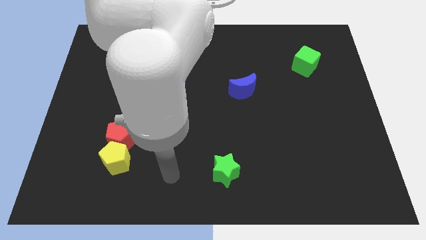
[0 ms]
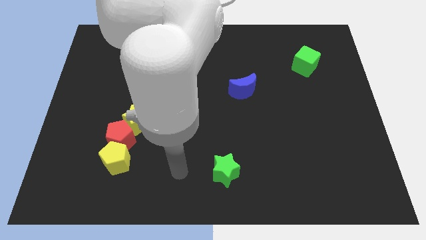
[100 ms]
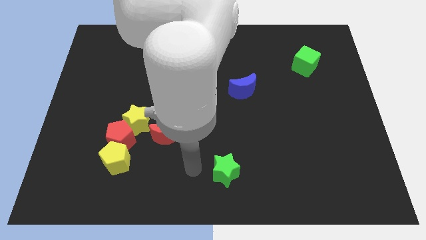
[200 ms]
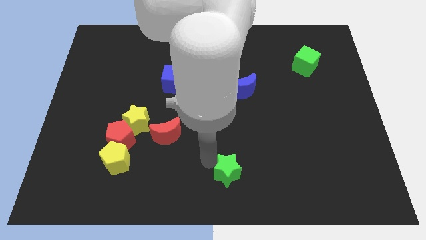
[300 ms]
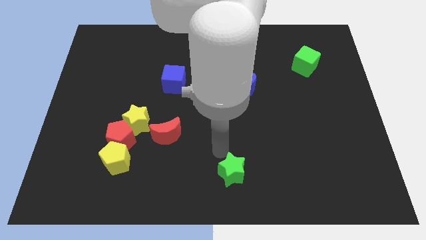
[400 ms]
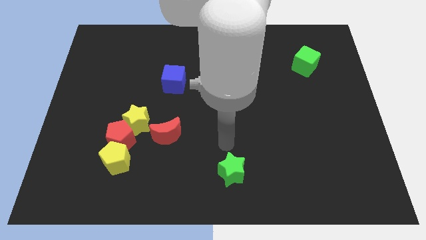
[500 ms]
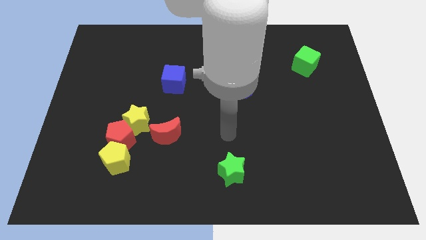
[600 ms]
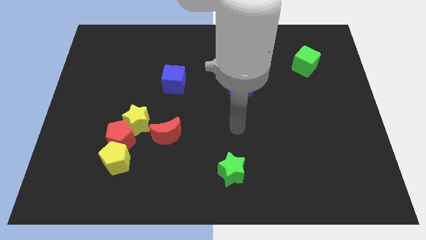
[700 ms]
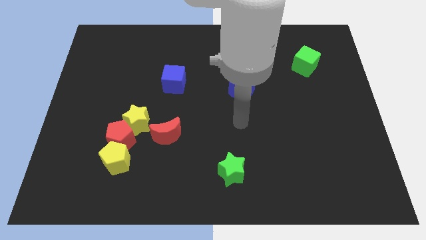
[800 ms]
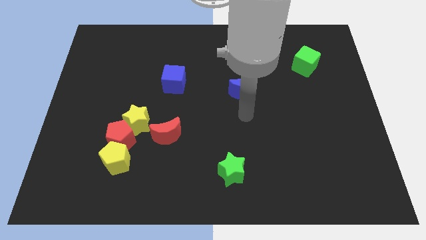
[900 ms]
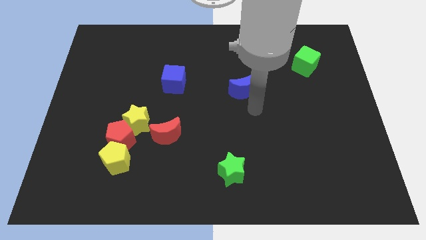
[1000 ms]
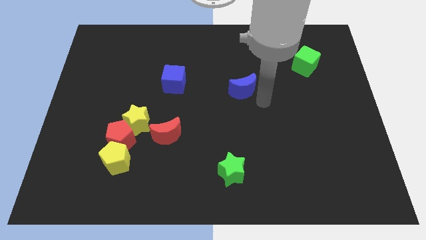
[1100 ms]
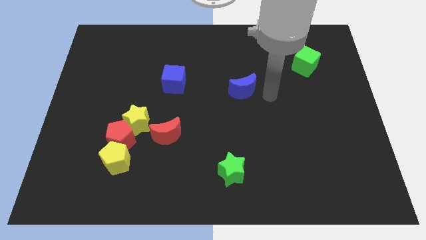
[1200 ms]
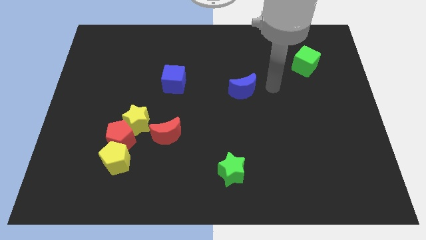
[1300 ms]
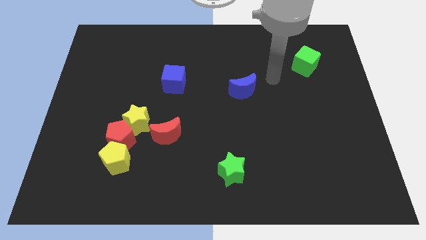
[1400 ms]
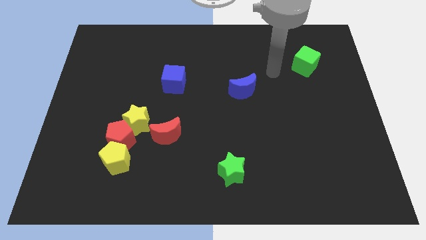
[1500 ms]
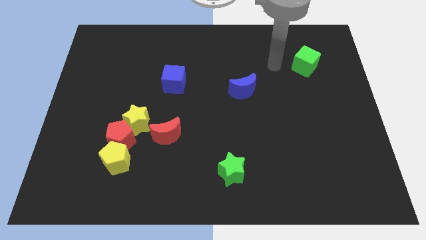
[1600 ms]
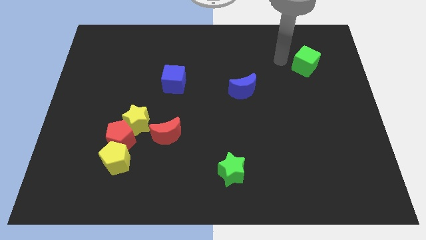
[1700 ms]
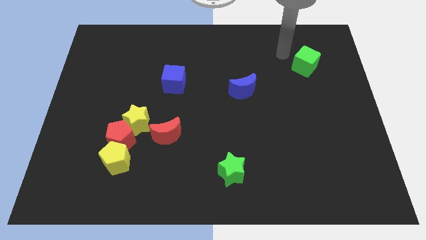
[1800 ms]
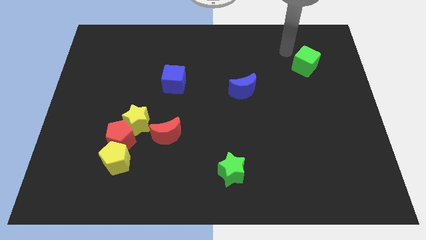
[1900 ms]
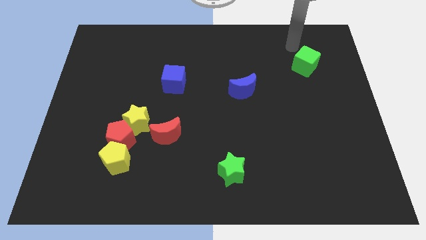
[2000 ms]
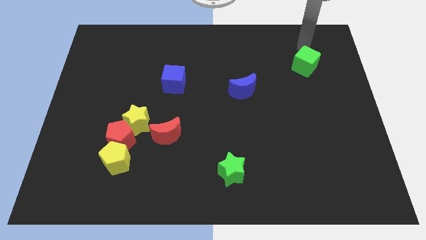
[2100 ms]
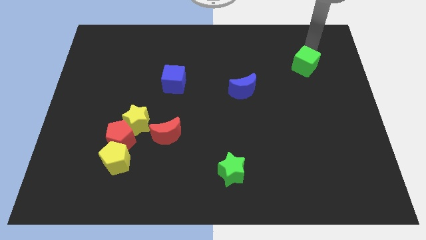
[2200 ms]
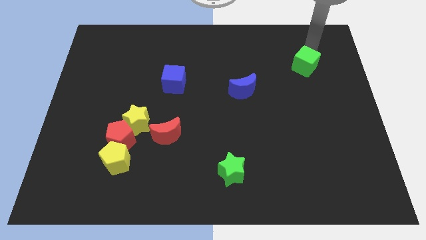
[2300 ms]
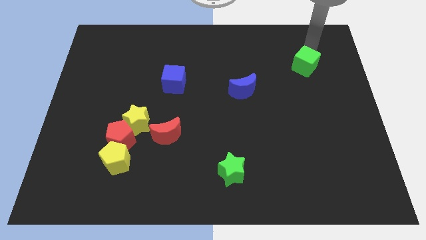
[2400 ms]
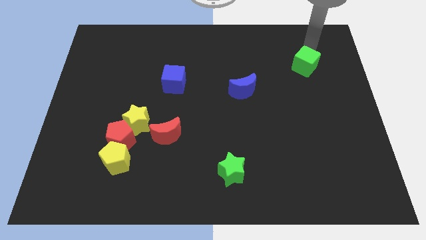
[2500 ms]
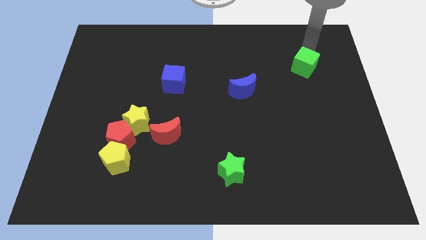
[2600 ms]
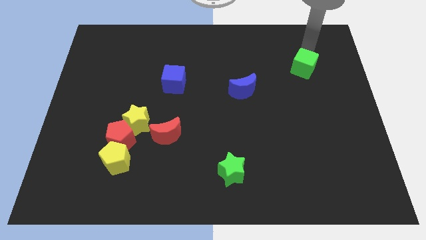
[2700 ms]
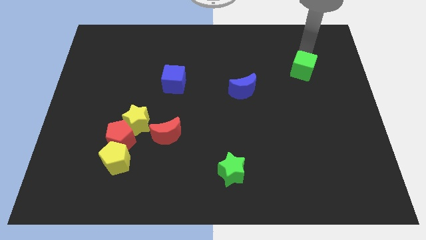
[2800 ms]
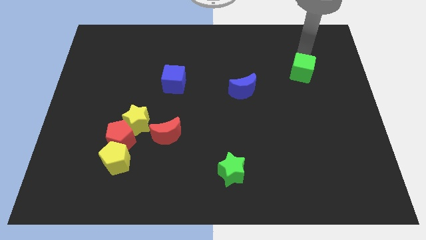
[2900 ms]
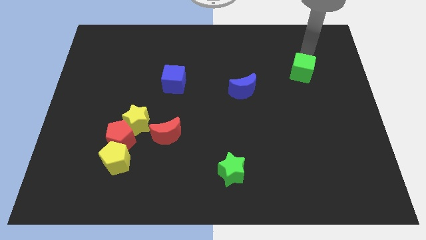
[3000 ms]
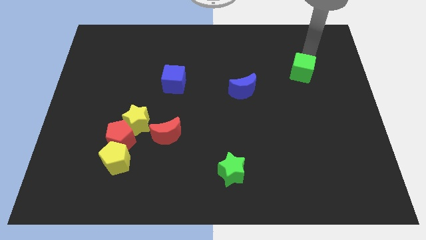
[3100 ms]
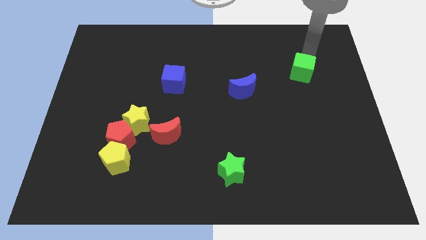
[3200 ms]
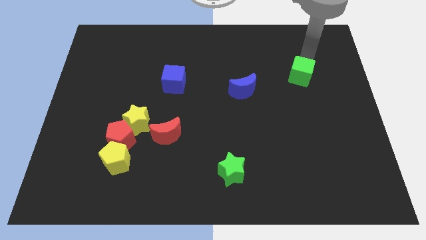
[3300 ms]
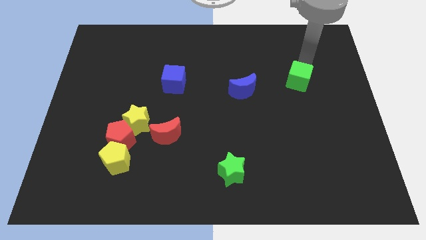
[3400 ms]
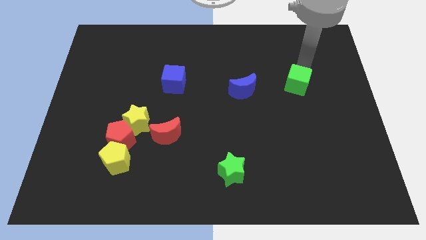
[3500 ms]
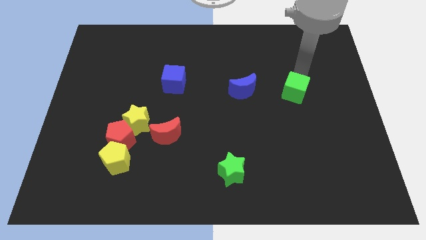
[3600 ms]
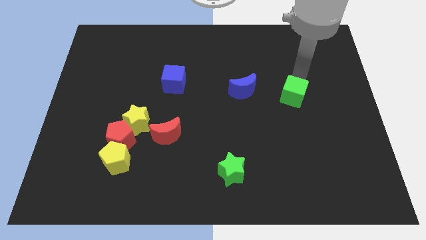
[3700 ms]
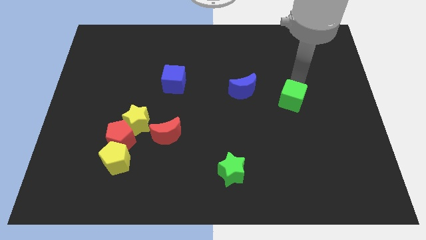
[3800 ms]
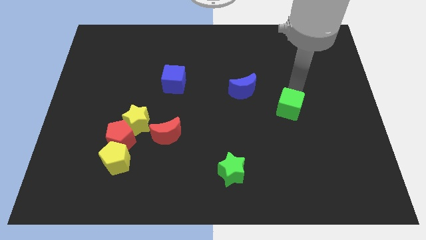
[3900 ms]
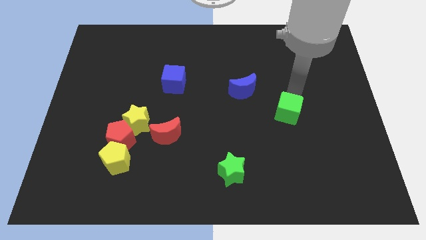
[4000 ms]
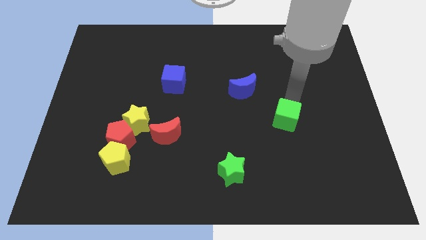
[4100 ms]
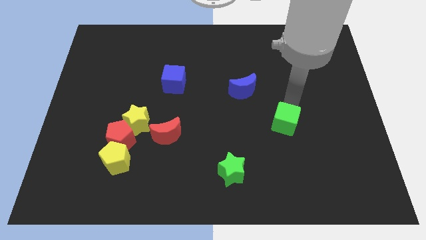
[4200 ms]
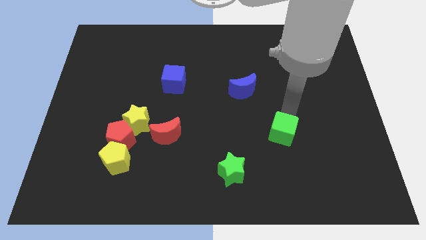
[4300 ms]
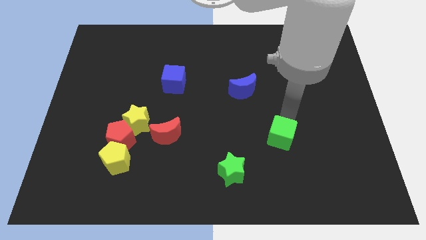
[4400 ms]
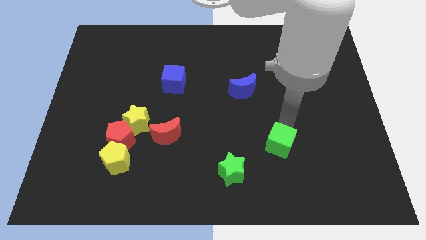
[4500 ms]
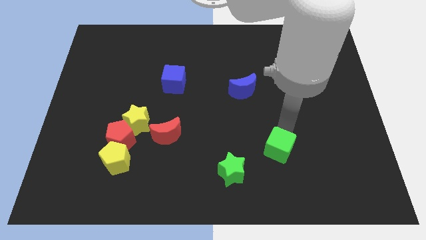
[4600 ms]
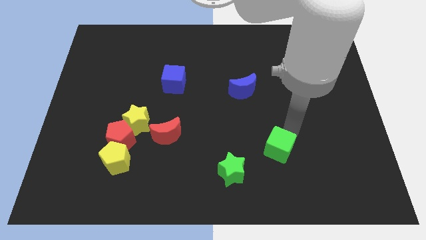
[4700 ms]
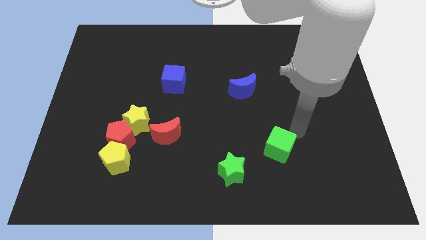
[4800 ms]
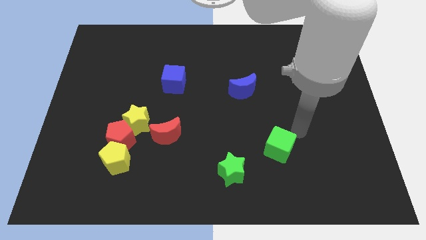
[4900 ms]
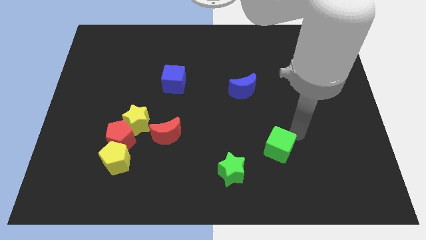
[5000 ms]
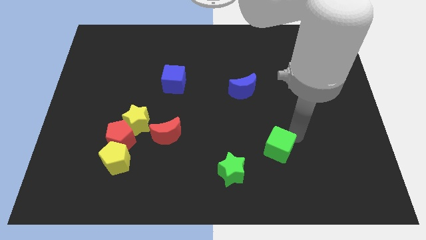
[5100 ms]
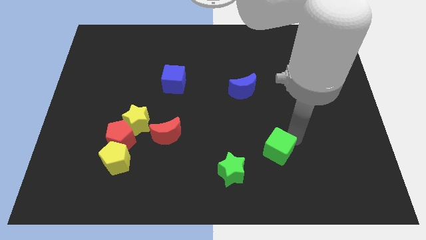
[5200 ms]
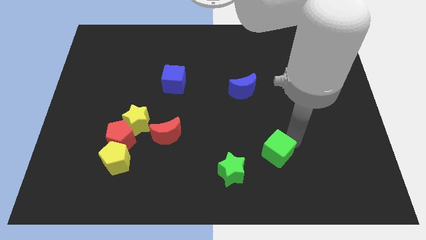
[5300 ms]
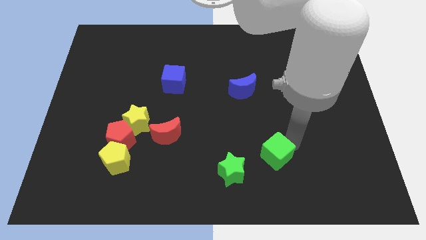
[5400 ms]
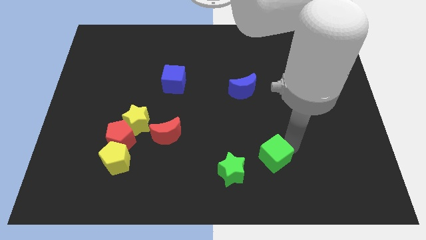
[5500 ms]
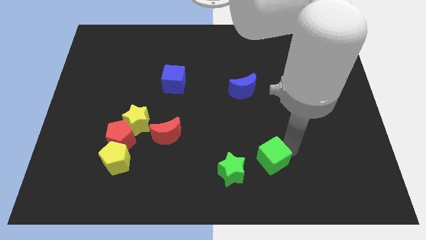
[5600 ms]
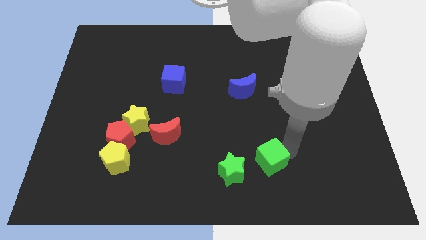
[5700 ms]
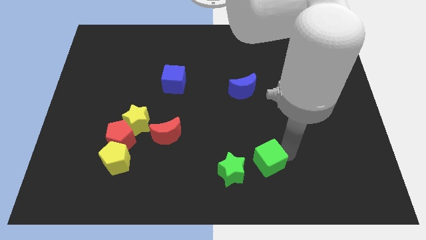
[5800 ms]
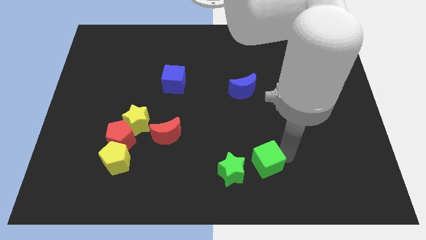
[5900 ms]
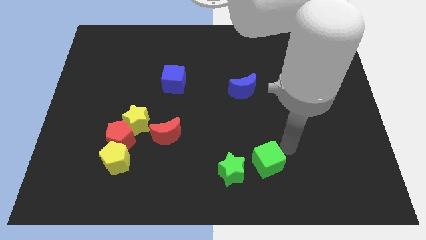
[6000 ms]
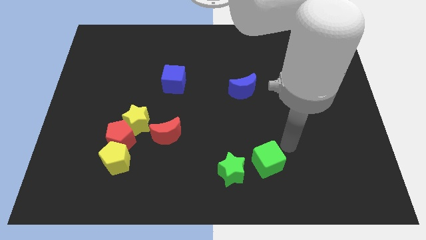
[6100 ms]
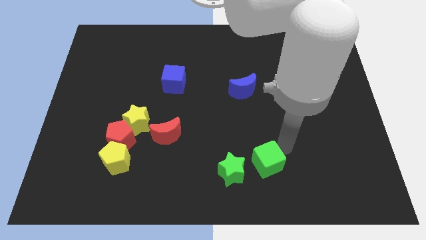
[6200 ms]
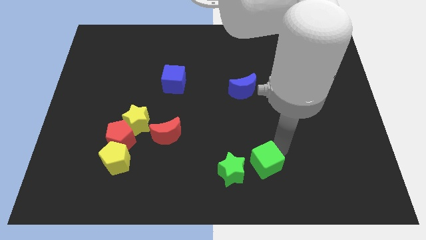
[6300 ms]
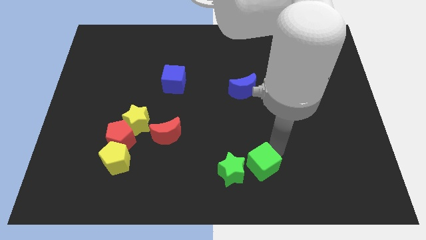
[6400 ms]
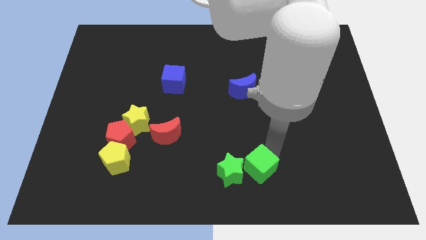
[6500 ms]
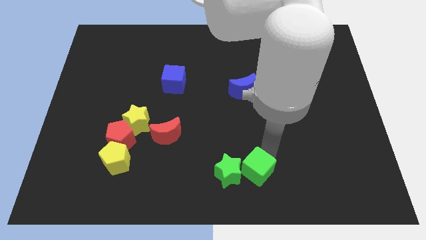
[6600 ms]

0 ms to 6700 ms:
move the green cube to the bottom side
